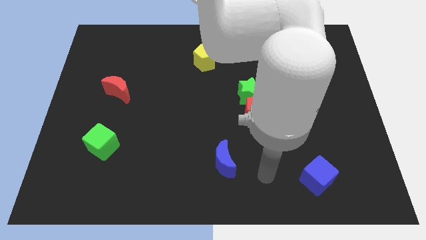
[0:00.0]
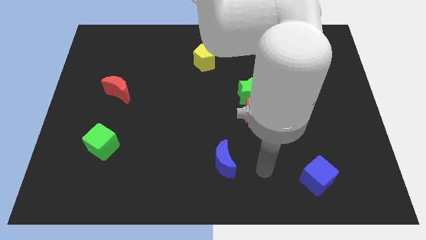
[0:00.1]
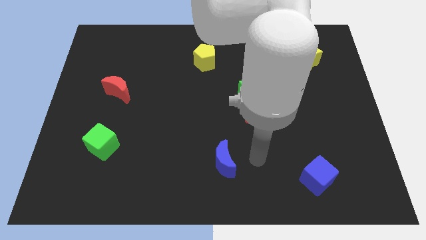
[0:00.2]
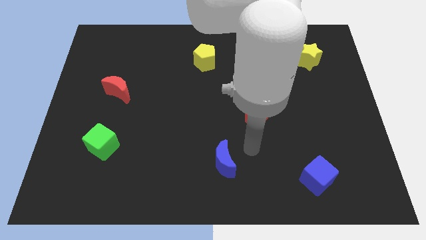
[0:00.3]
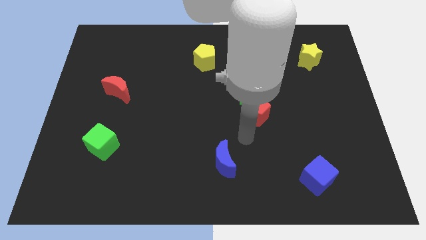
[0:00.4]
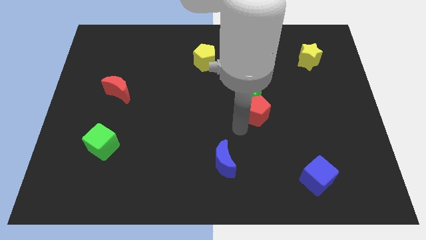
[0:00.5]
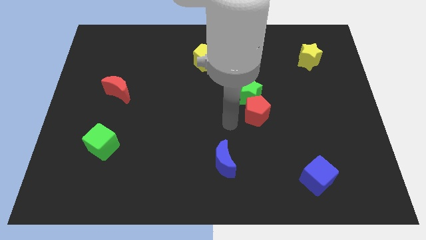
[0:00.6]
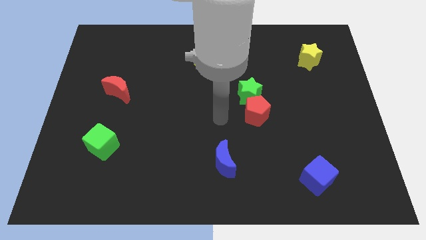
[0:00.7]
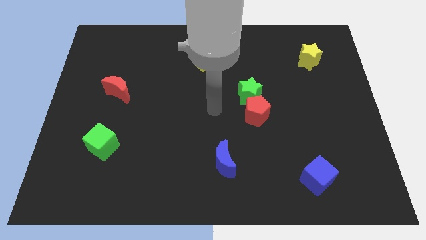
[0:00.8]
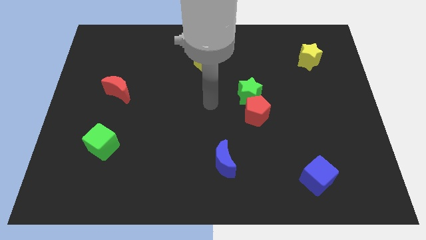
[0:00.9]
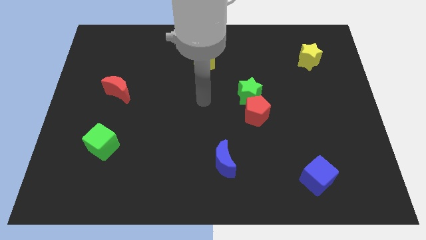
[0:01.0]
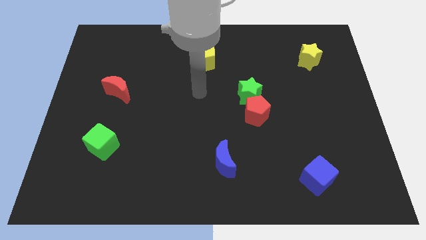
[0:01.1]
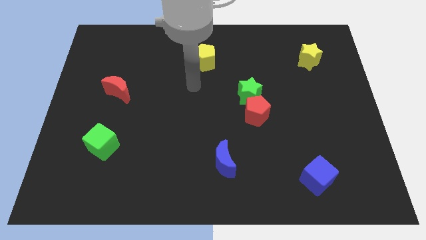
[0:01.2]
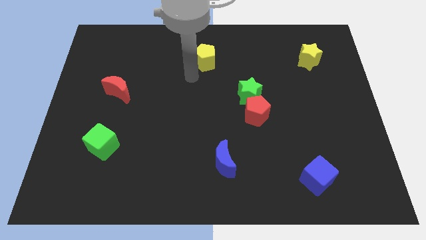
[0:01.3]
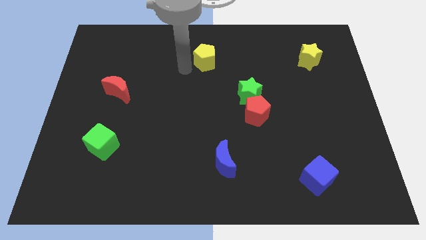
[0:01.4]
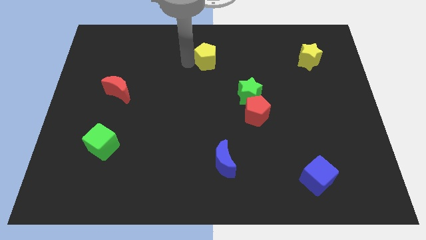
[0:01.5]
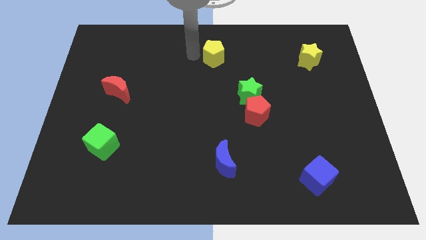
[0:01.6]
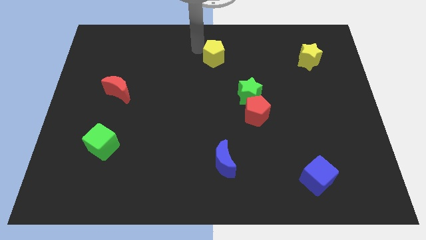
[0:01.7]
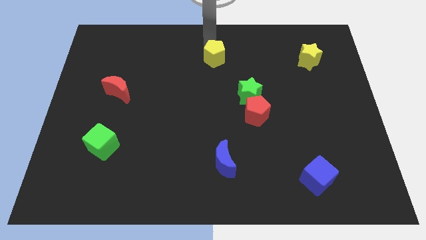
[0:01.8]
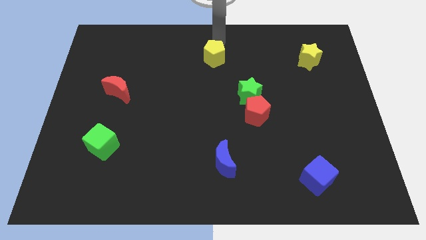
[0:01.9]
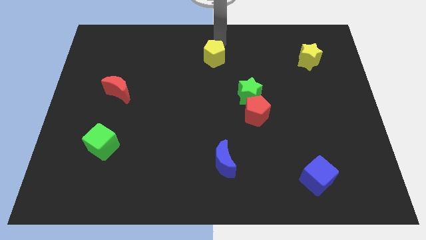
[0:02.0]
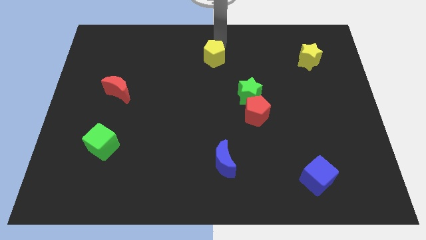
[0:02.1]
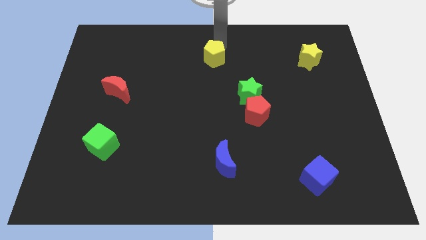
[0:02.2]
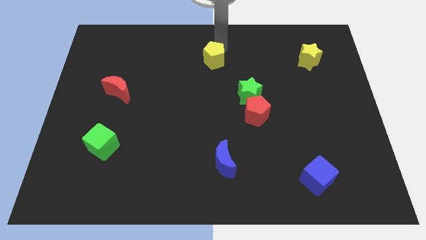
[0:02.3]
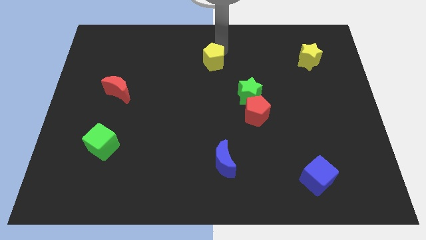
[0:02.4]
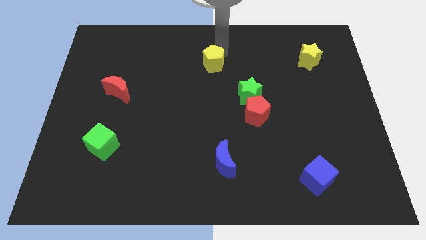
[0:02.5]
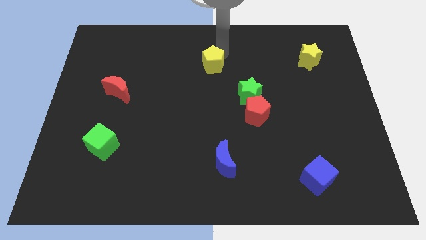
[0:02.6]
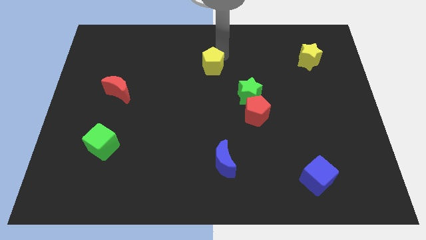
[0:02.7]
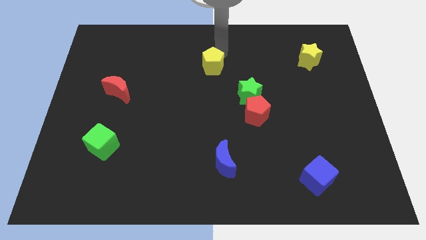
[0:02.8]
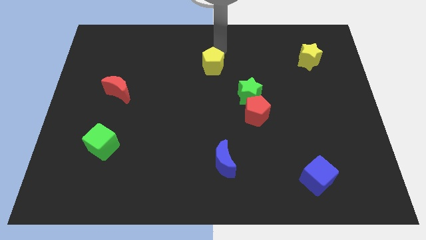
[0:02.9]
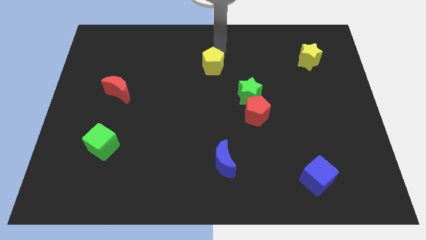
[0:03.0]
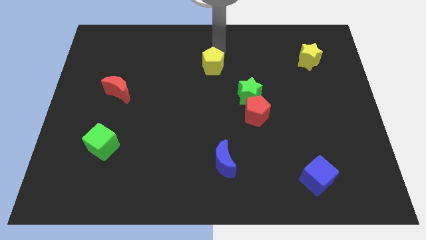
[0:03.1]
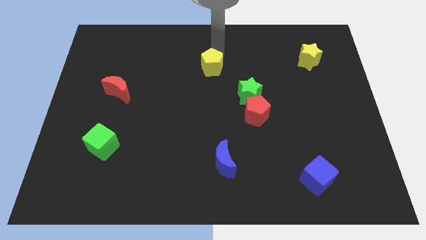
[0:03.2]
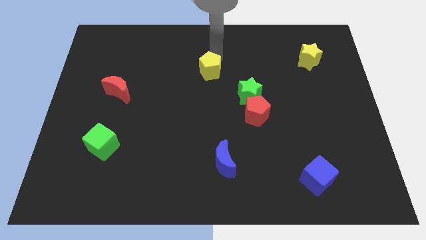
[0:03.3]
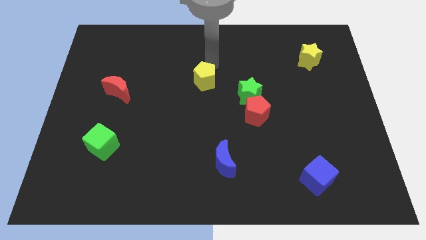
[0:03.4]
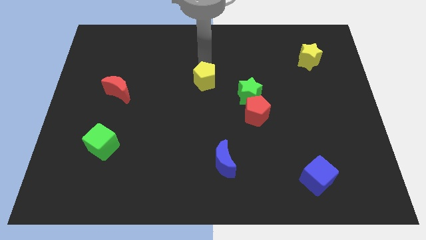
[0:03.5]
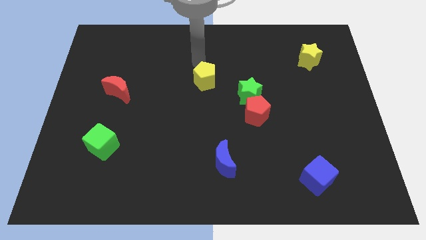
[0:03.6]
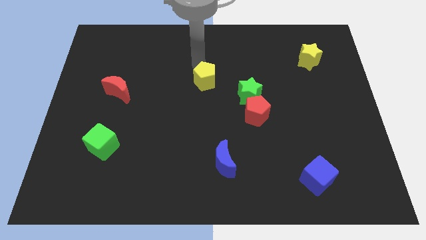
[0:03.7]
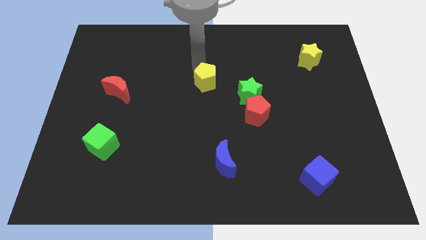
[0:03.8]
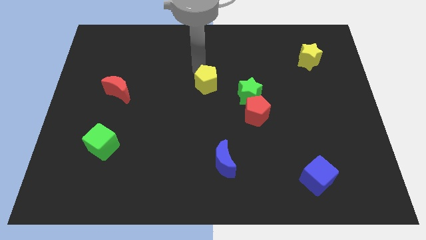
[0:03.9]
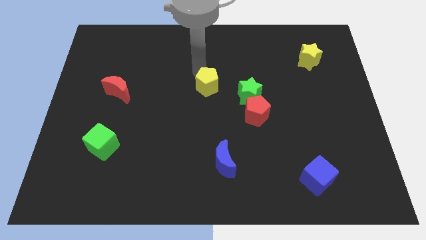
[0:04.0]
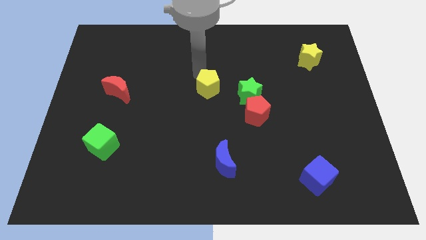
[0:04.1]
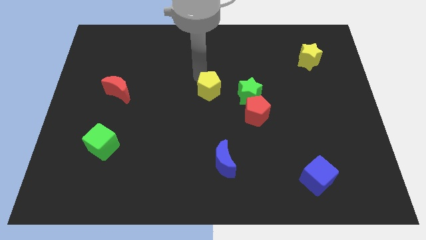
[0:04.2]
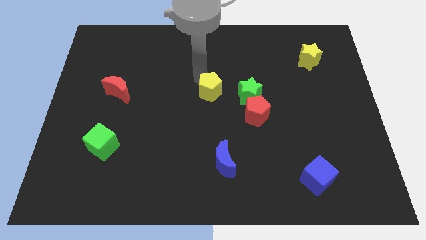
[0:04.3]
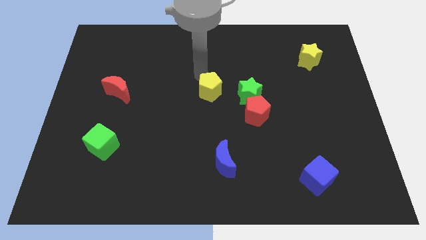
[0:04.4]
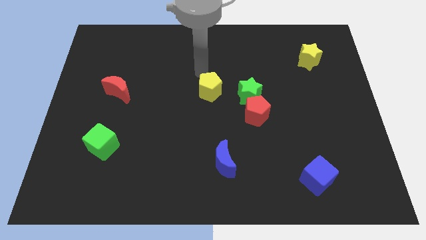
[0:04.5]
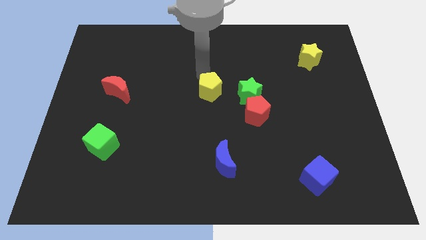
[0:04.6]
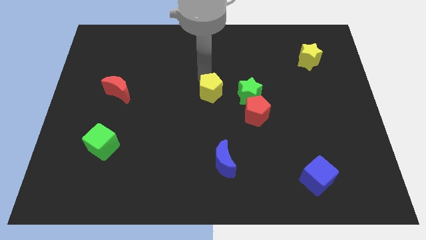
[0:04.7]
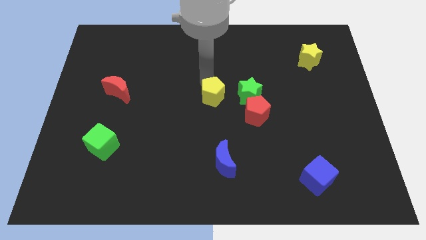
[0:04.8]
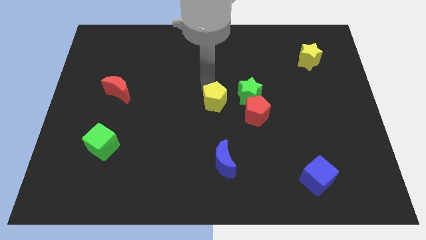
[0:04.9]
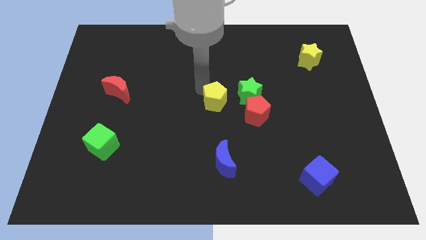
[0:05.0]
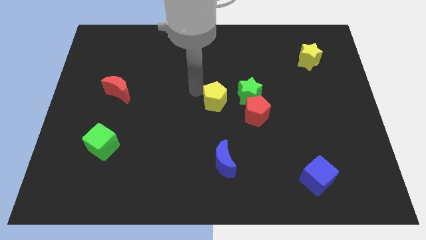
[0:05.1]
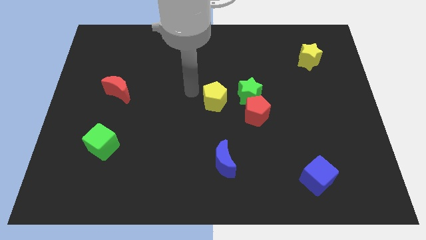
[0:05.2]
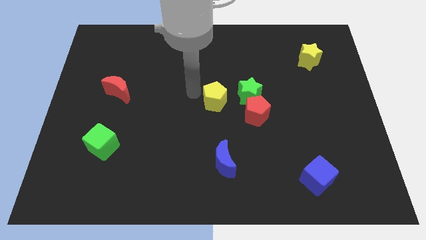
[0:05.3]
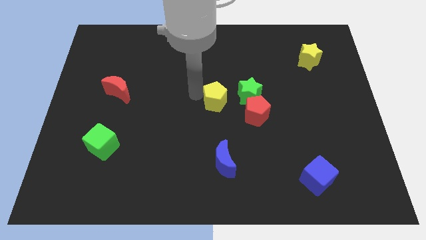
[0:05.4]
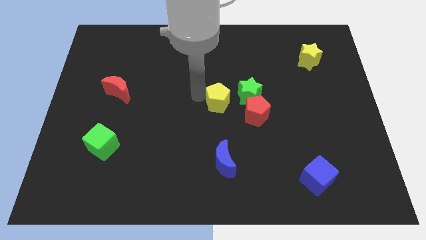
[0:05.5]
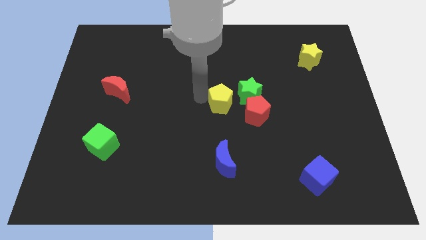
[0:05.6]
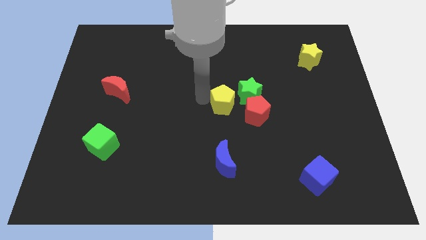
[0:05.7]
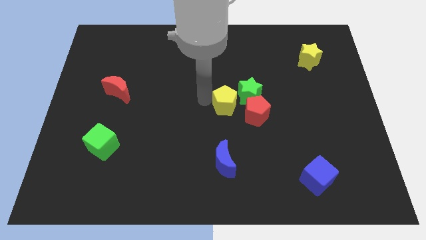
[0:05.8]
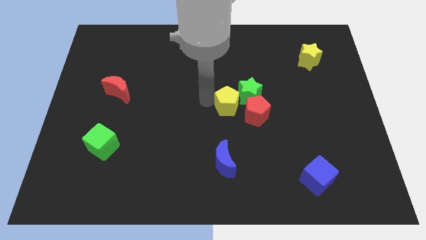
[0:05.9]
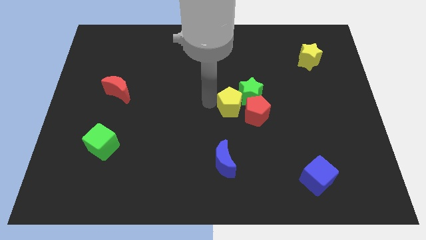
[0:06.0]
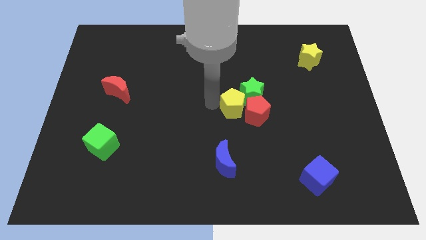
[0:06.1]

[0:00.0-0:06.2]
put the yellow pentagon next to the red pentagon
